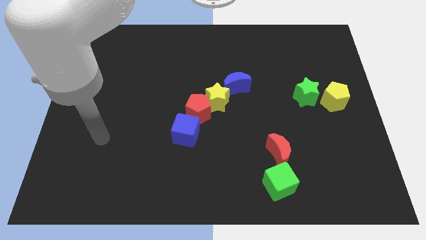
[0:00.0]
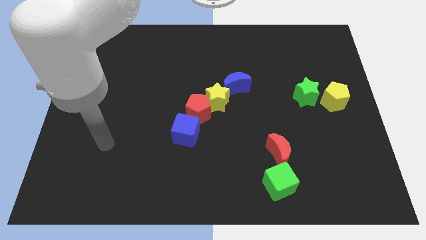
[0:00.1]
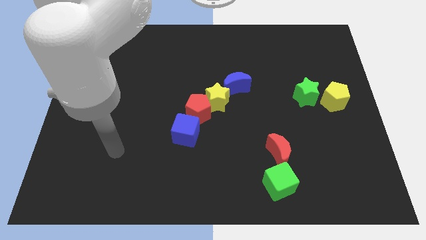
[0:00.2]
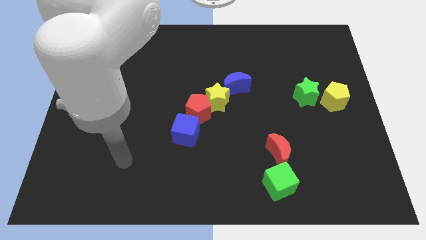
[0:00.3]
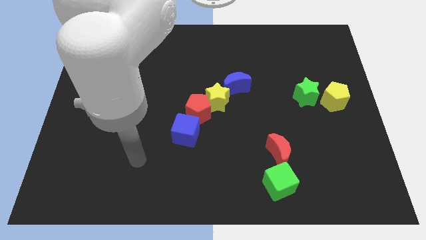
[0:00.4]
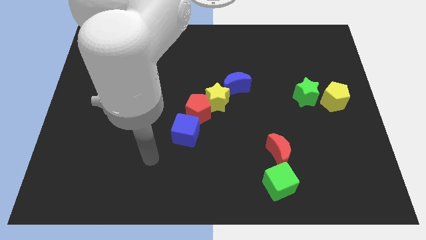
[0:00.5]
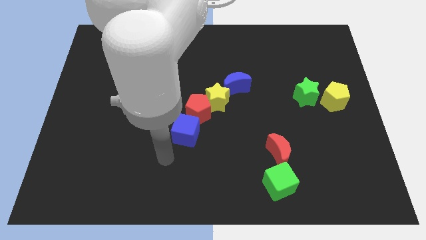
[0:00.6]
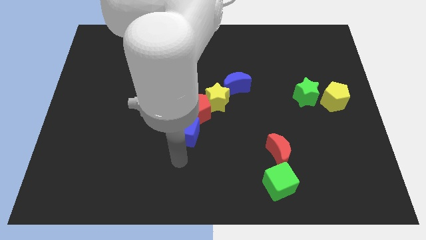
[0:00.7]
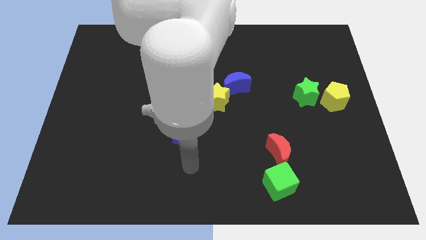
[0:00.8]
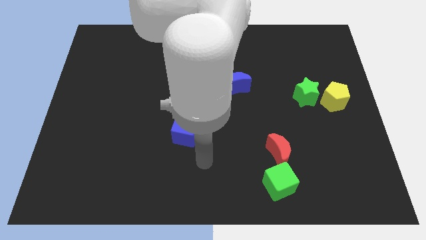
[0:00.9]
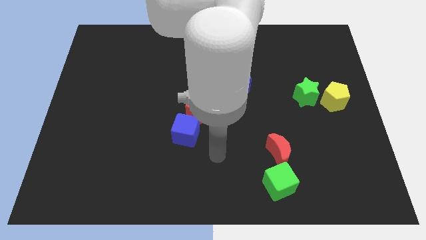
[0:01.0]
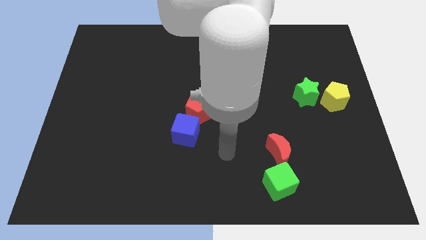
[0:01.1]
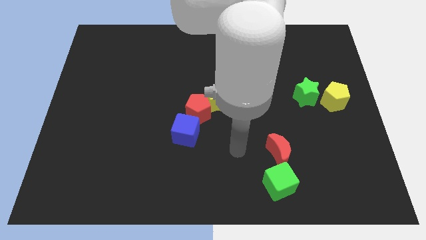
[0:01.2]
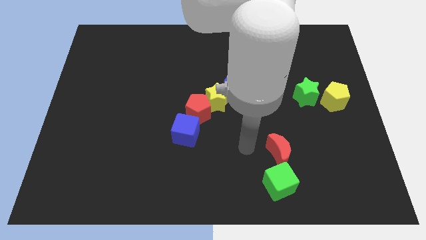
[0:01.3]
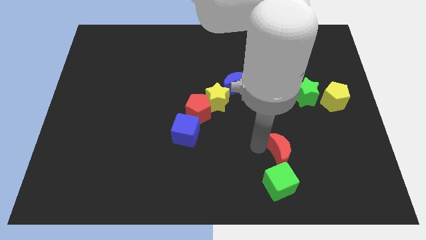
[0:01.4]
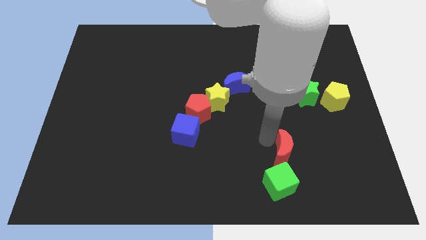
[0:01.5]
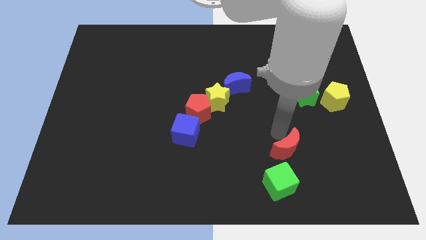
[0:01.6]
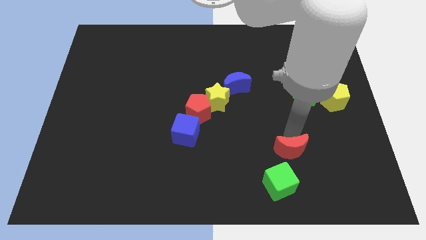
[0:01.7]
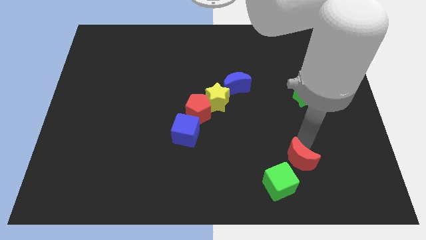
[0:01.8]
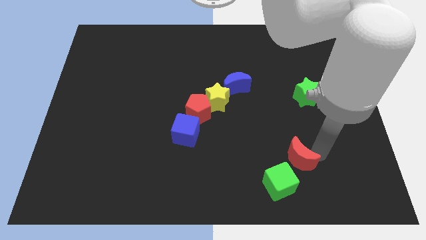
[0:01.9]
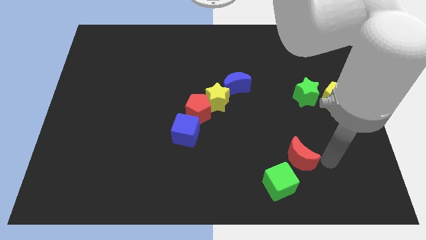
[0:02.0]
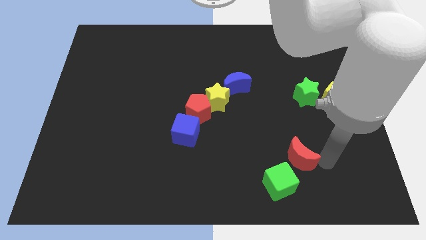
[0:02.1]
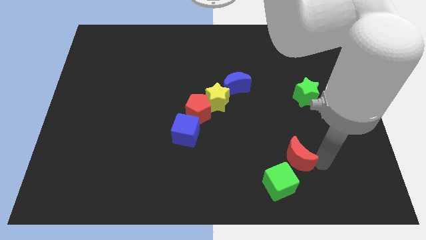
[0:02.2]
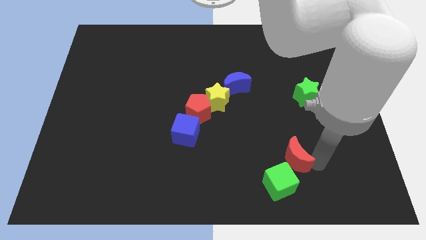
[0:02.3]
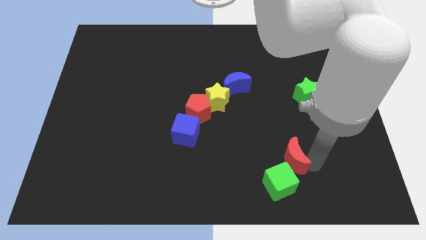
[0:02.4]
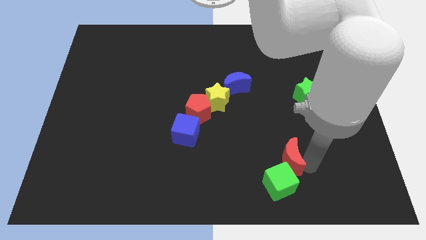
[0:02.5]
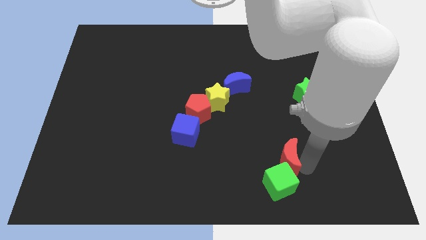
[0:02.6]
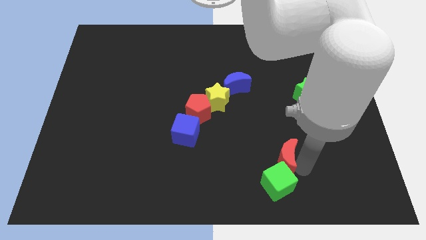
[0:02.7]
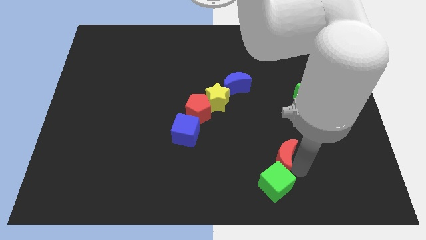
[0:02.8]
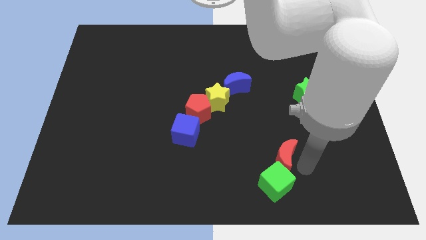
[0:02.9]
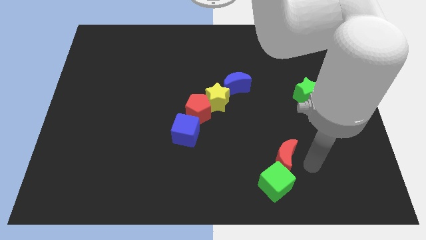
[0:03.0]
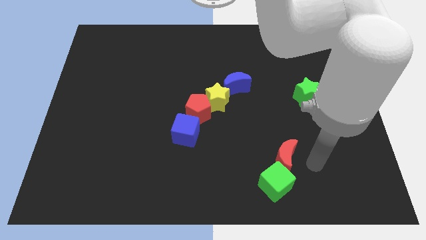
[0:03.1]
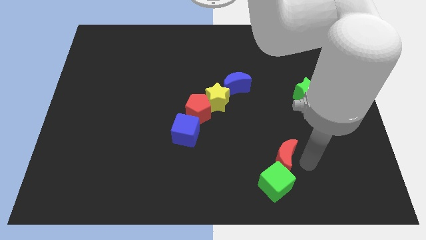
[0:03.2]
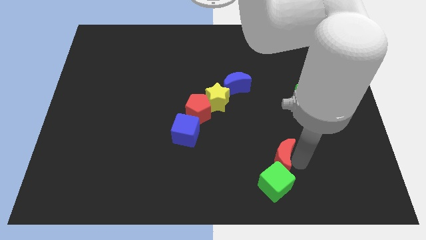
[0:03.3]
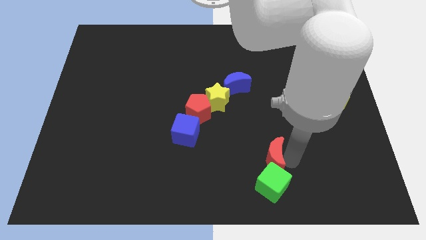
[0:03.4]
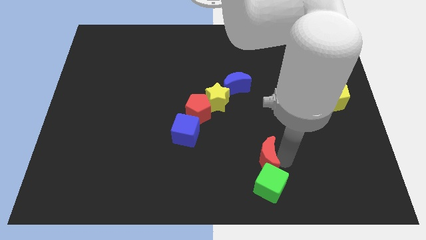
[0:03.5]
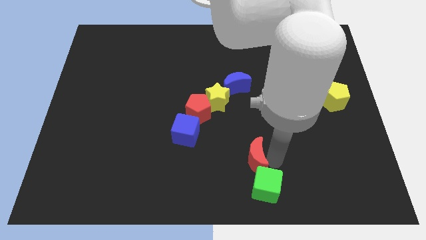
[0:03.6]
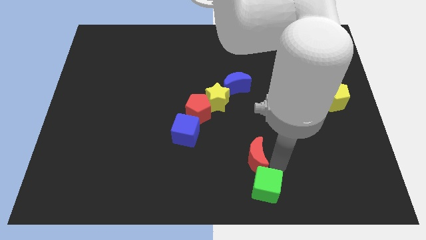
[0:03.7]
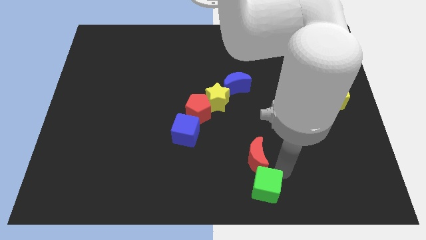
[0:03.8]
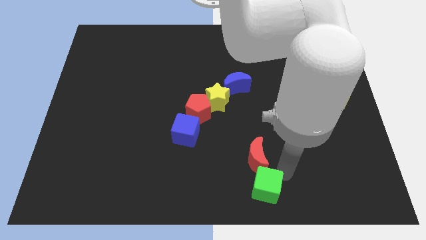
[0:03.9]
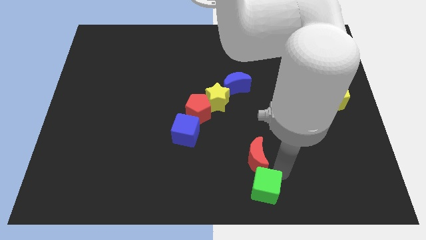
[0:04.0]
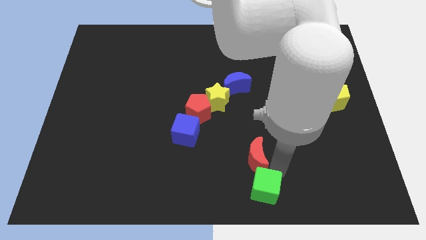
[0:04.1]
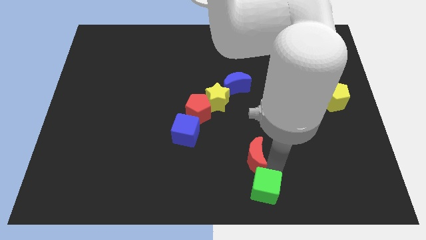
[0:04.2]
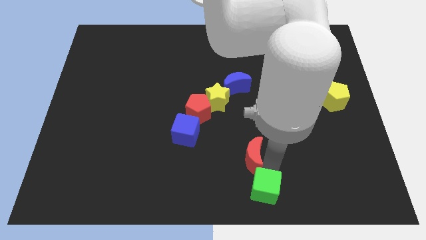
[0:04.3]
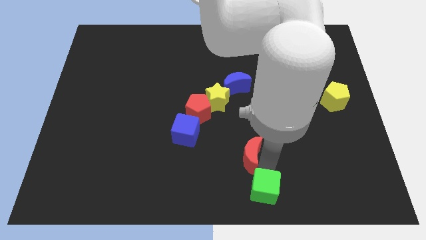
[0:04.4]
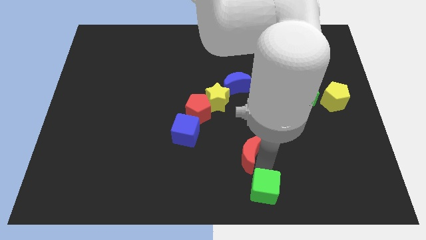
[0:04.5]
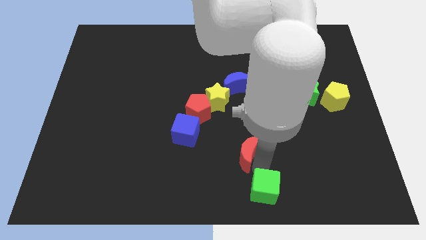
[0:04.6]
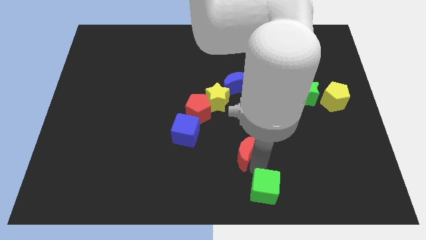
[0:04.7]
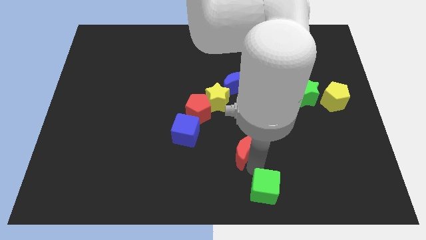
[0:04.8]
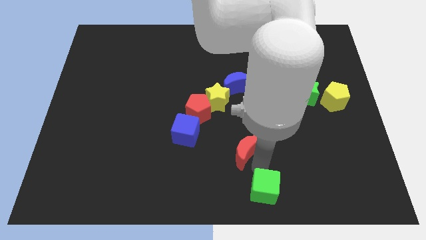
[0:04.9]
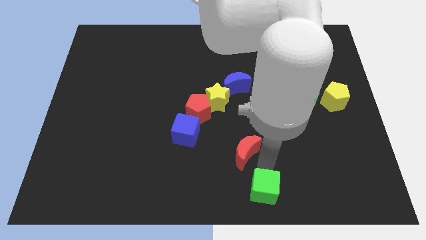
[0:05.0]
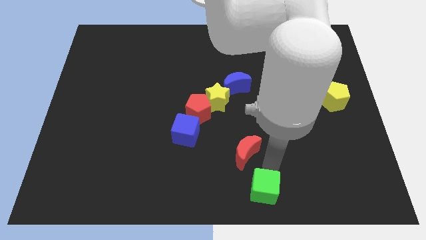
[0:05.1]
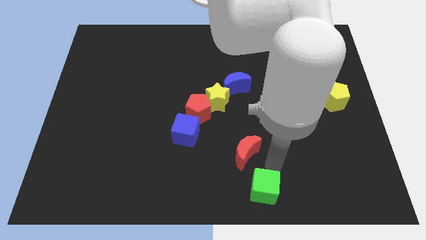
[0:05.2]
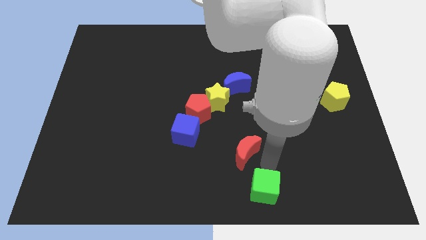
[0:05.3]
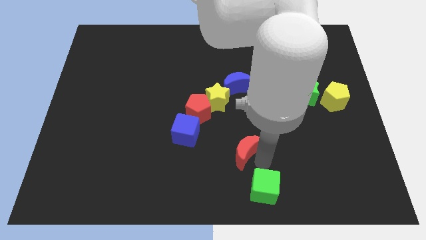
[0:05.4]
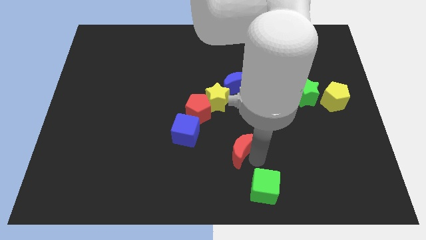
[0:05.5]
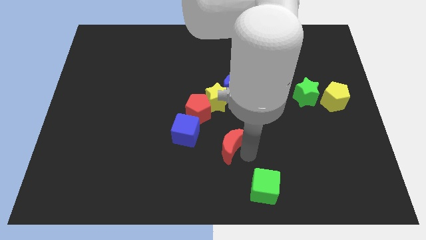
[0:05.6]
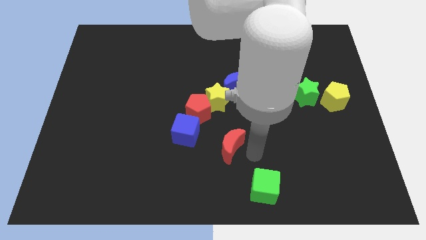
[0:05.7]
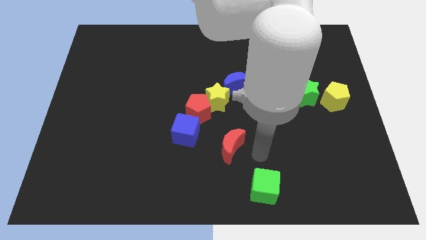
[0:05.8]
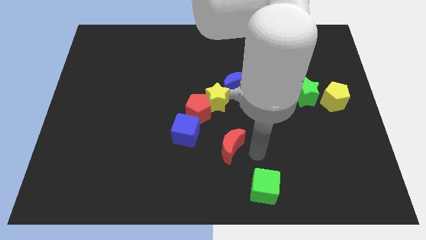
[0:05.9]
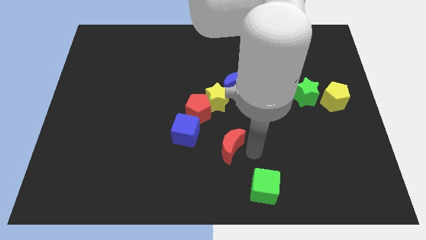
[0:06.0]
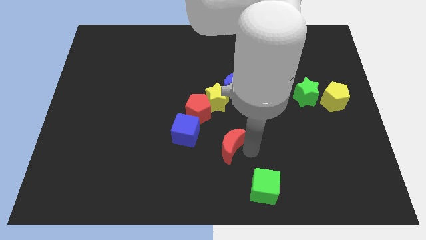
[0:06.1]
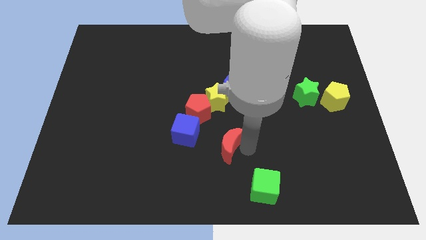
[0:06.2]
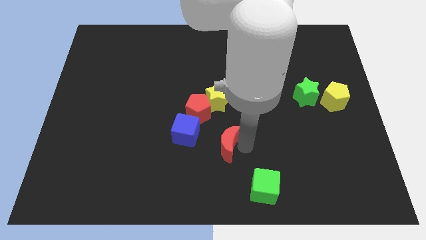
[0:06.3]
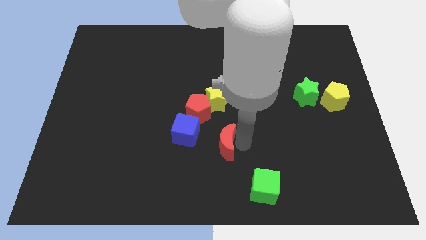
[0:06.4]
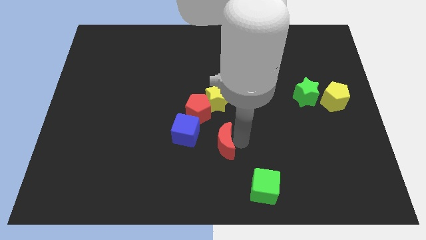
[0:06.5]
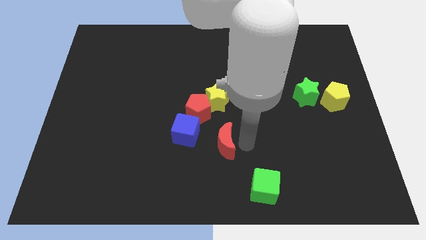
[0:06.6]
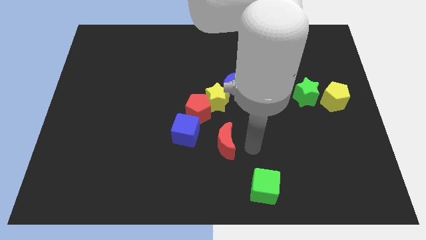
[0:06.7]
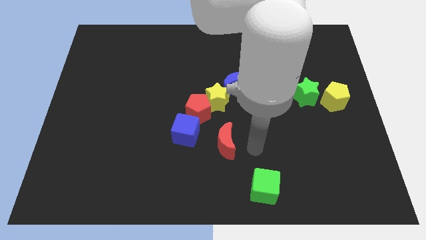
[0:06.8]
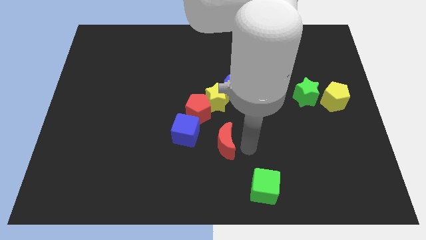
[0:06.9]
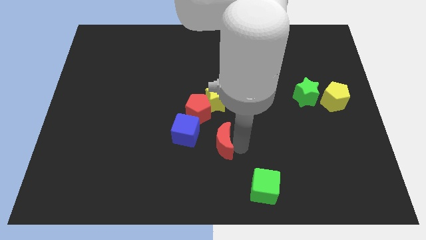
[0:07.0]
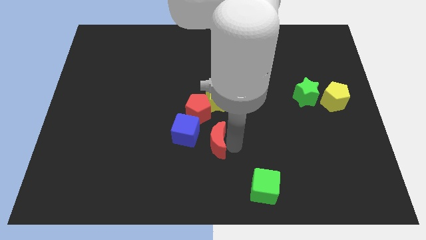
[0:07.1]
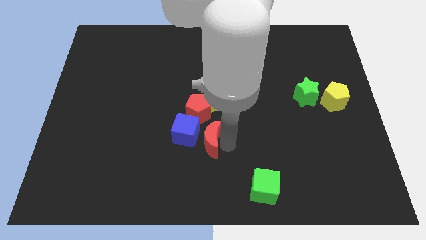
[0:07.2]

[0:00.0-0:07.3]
put the red moon next to the blue cube

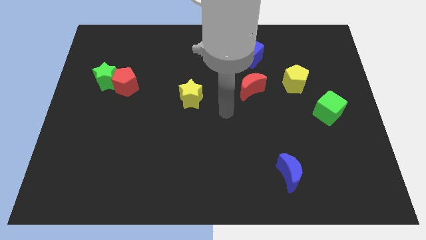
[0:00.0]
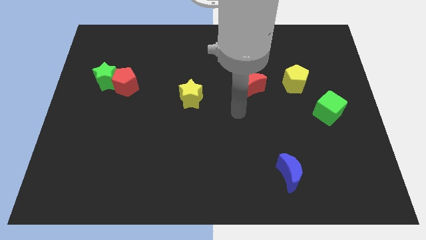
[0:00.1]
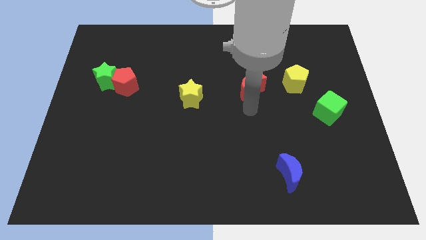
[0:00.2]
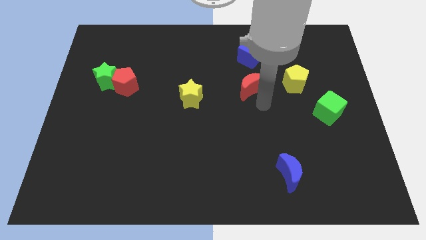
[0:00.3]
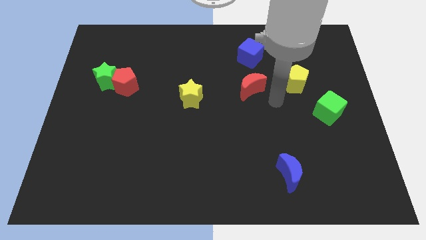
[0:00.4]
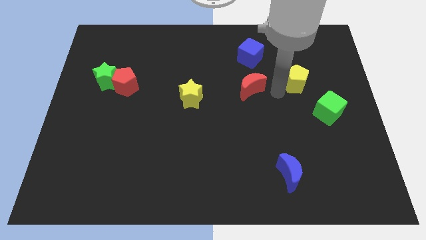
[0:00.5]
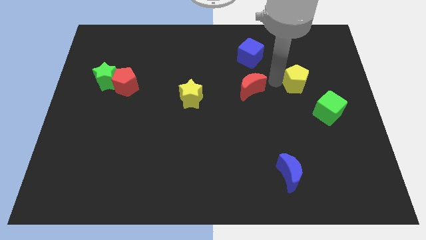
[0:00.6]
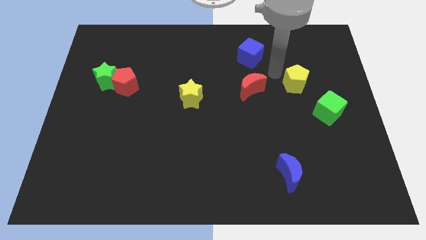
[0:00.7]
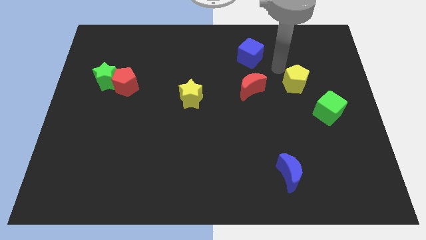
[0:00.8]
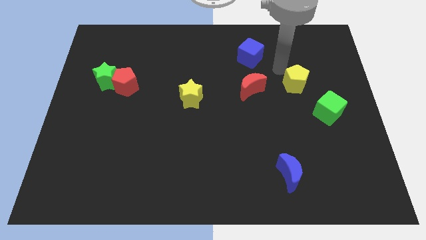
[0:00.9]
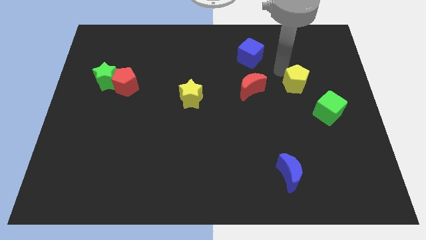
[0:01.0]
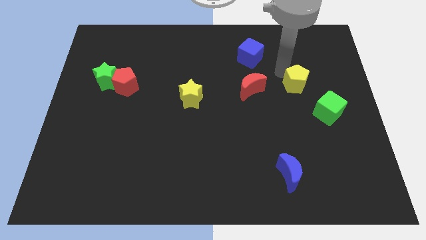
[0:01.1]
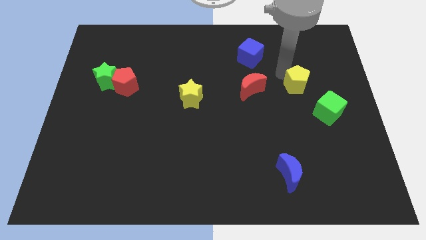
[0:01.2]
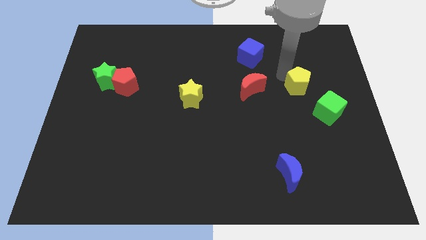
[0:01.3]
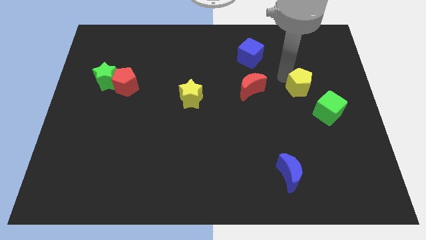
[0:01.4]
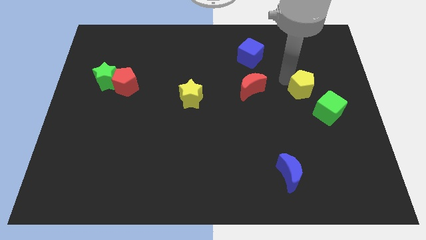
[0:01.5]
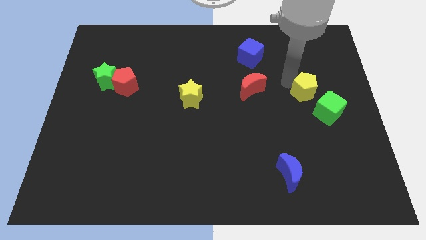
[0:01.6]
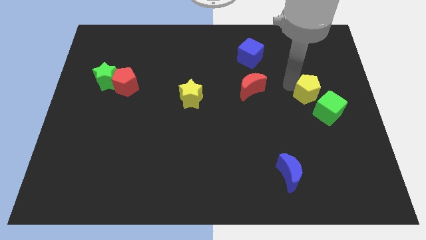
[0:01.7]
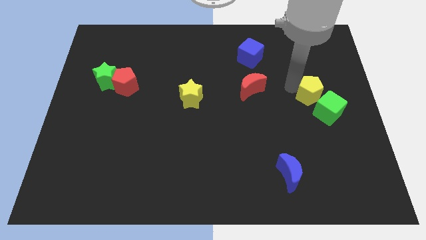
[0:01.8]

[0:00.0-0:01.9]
put the yellow pentagon next to the green cube
